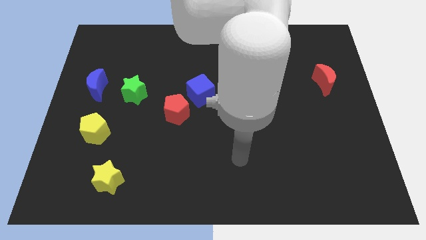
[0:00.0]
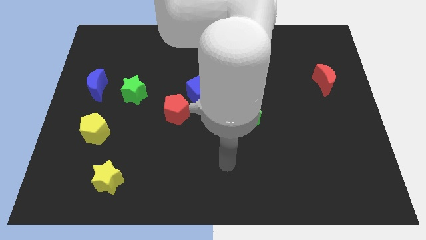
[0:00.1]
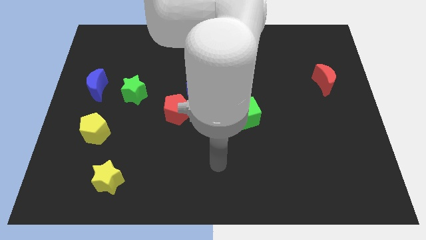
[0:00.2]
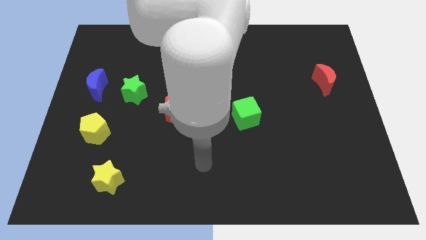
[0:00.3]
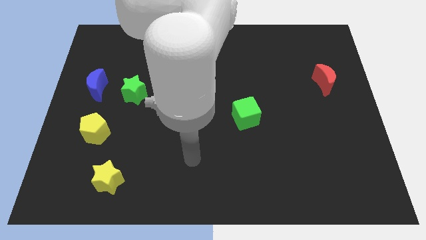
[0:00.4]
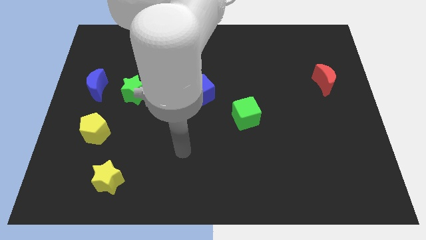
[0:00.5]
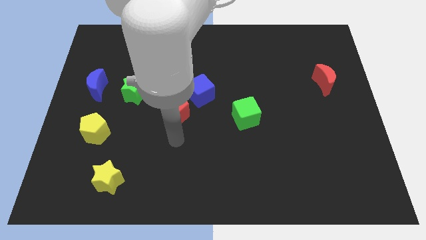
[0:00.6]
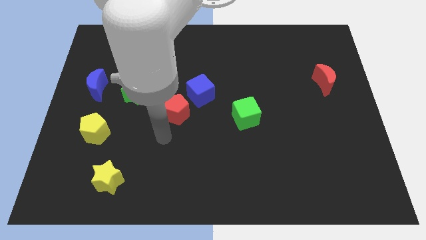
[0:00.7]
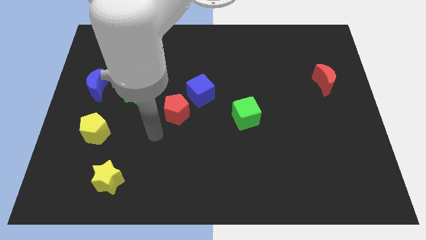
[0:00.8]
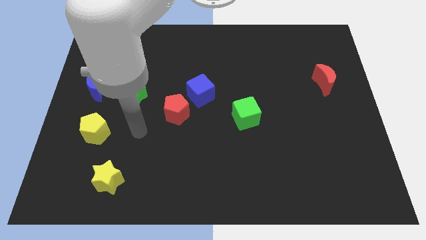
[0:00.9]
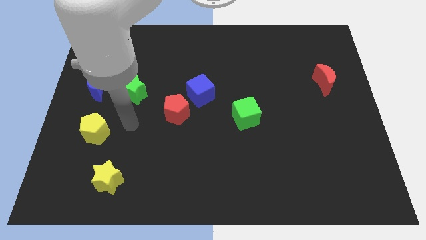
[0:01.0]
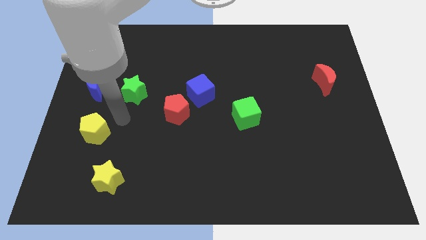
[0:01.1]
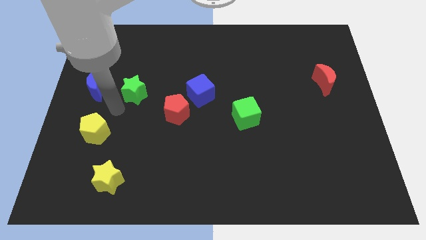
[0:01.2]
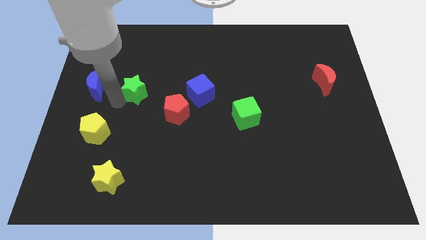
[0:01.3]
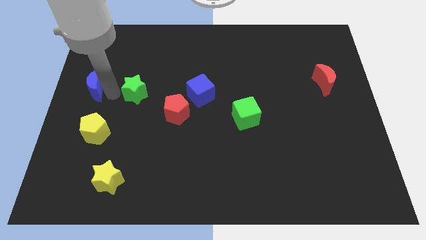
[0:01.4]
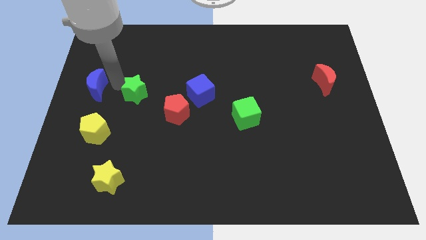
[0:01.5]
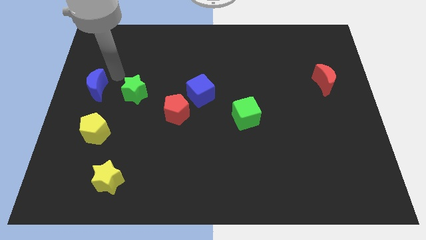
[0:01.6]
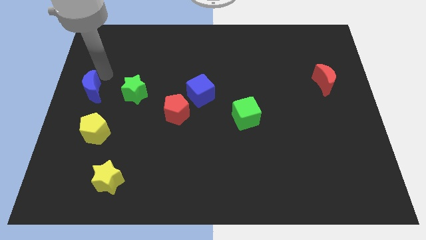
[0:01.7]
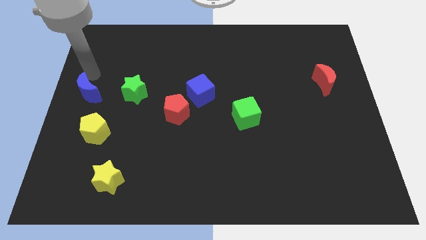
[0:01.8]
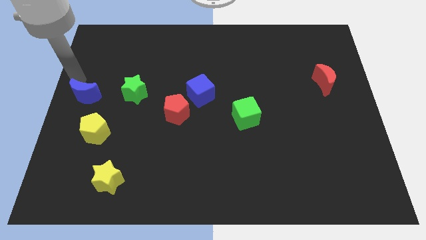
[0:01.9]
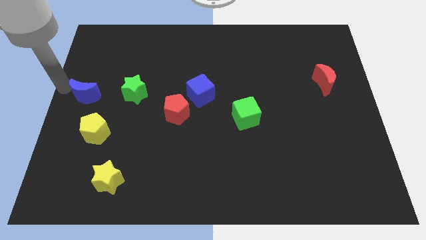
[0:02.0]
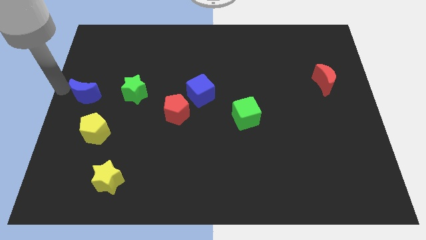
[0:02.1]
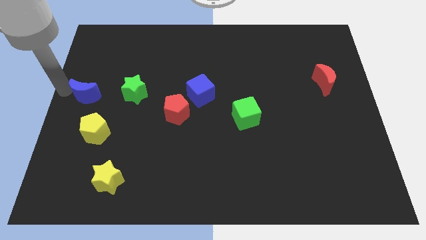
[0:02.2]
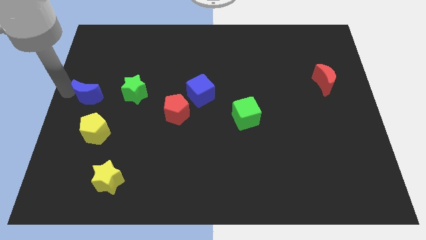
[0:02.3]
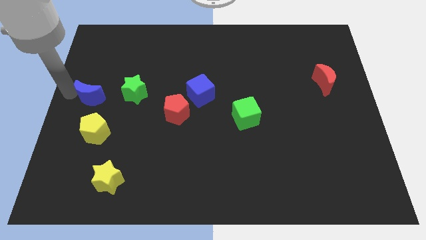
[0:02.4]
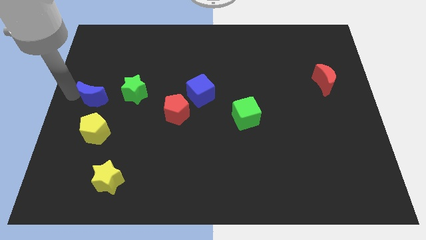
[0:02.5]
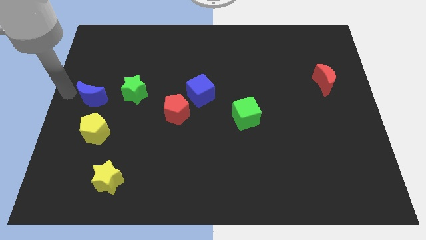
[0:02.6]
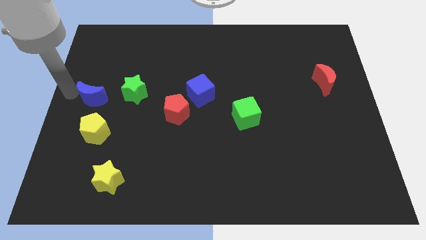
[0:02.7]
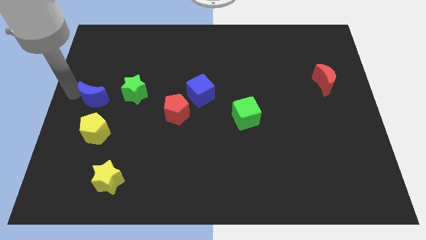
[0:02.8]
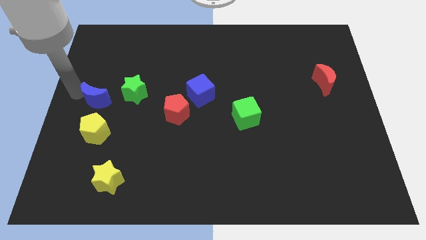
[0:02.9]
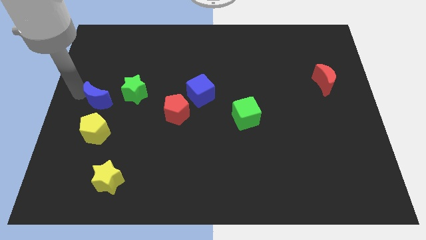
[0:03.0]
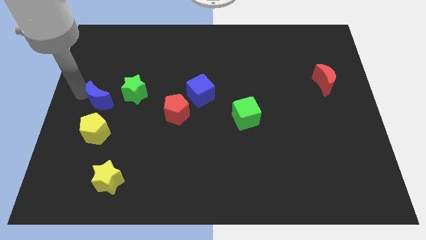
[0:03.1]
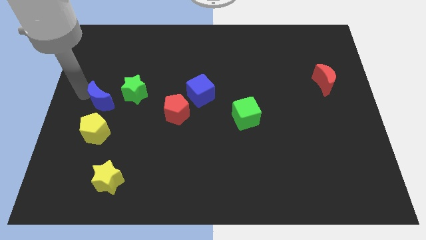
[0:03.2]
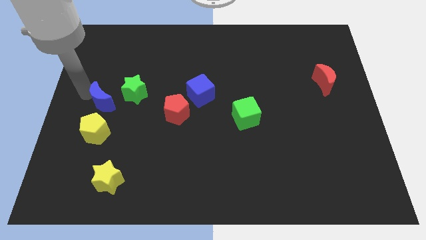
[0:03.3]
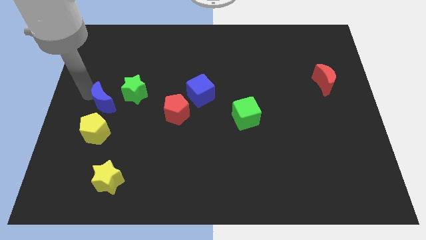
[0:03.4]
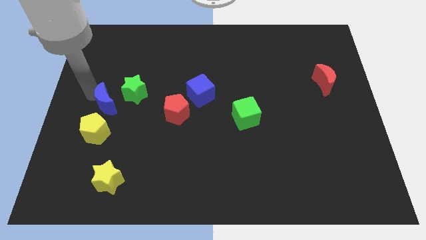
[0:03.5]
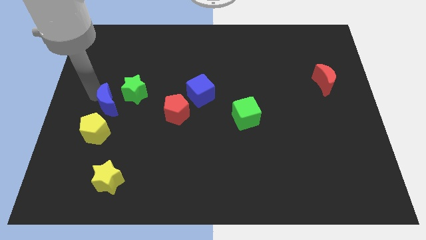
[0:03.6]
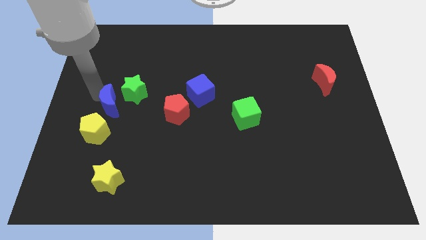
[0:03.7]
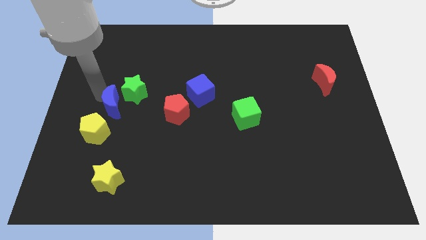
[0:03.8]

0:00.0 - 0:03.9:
slide the blue moon somewhat down and right diagonally

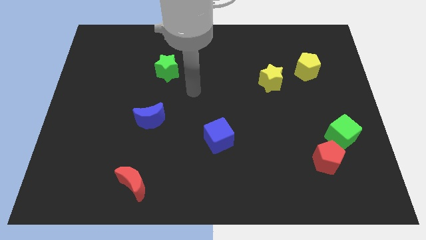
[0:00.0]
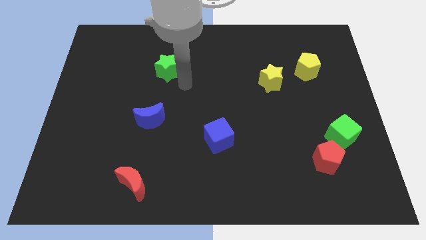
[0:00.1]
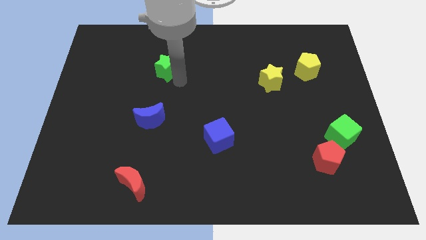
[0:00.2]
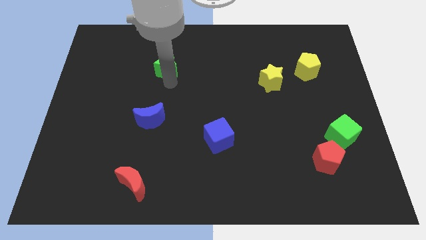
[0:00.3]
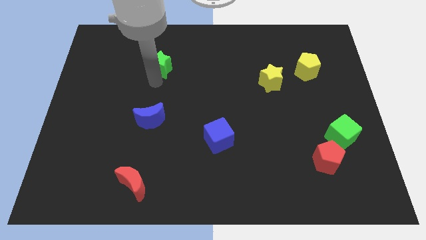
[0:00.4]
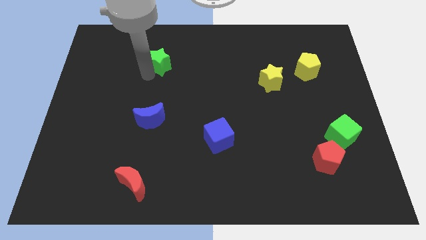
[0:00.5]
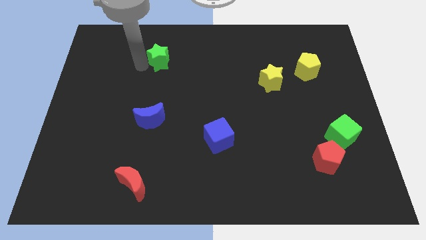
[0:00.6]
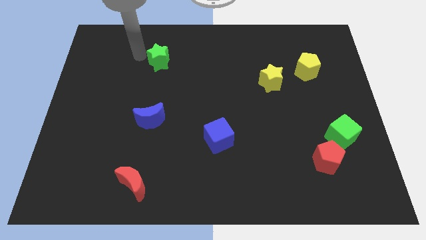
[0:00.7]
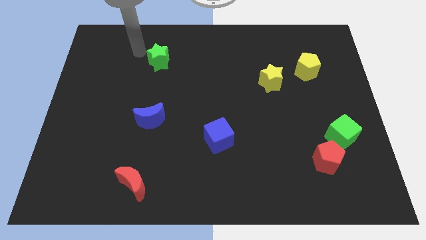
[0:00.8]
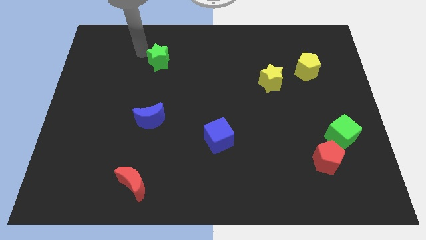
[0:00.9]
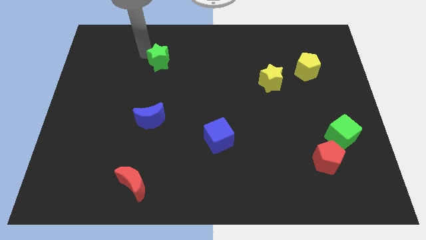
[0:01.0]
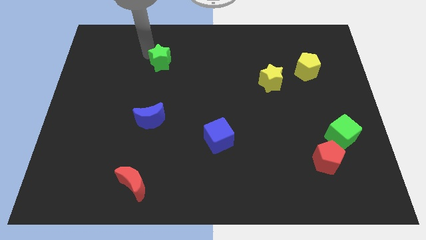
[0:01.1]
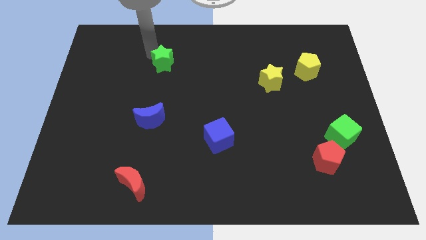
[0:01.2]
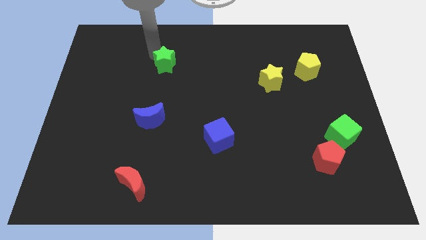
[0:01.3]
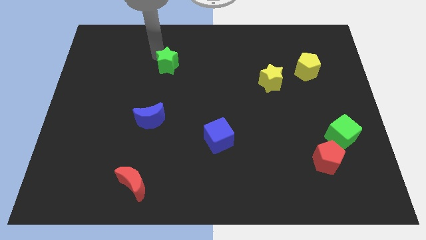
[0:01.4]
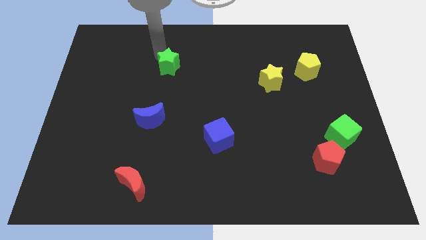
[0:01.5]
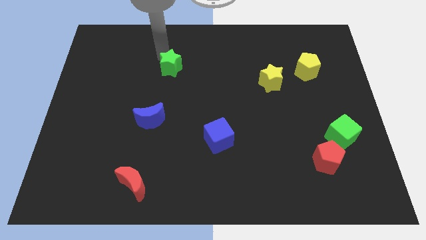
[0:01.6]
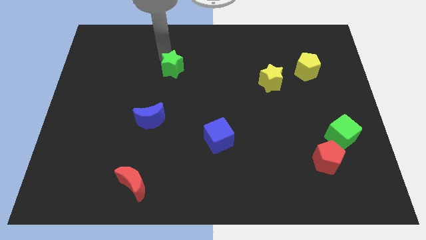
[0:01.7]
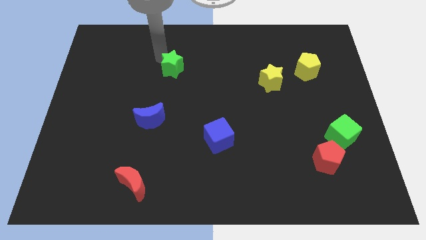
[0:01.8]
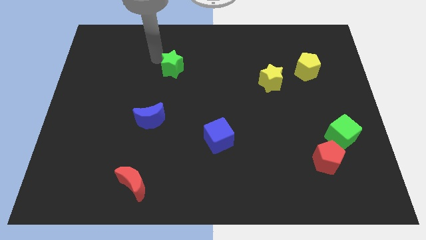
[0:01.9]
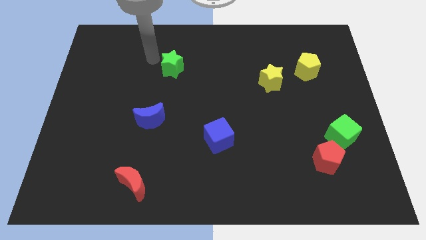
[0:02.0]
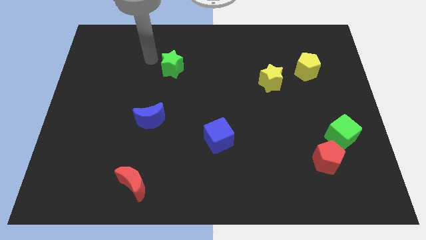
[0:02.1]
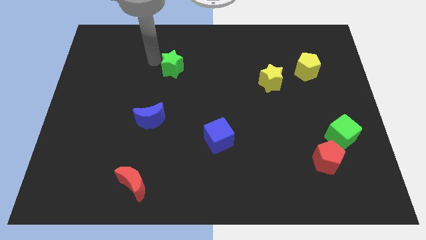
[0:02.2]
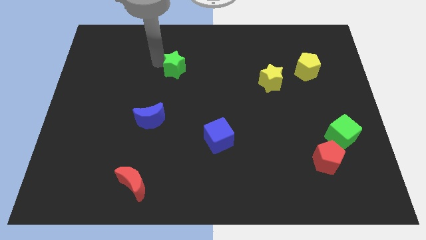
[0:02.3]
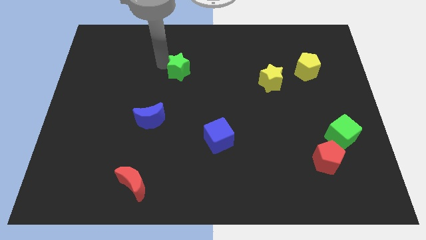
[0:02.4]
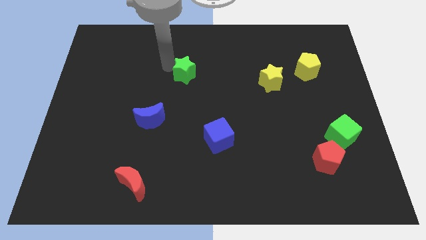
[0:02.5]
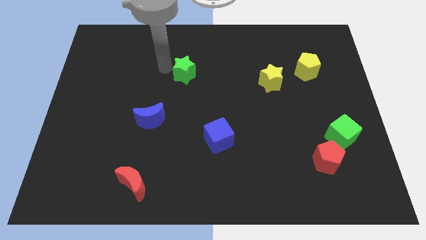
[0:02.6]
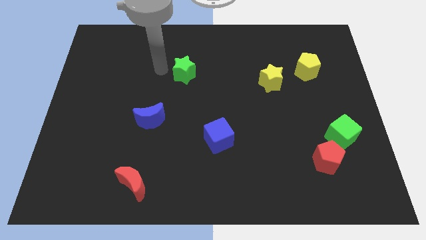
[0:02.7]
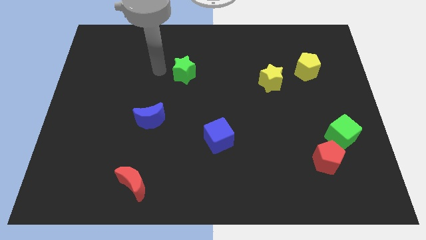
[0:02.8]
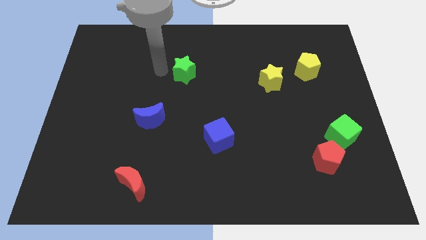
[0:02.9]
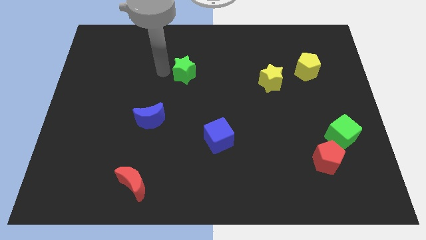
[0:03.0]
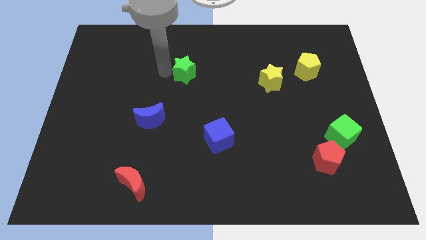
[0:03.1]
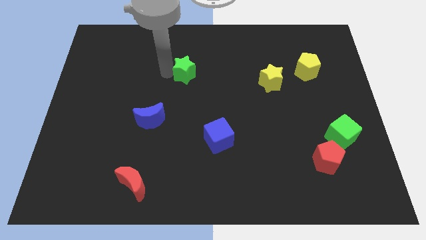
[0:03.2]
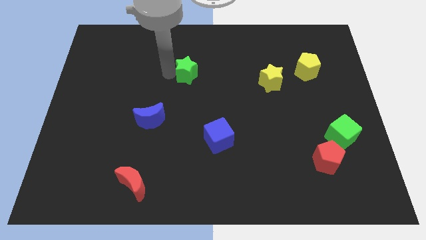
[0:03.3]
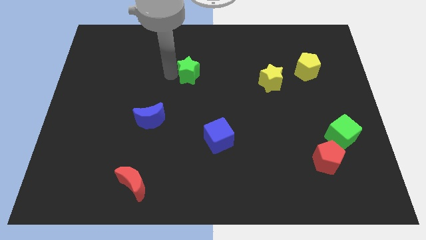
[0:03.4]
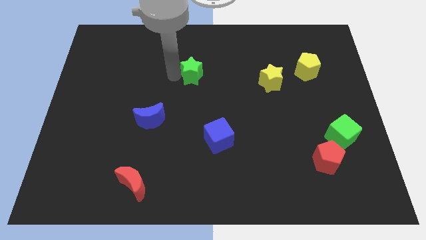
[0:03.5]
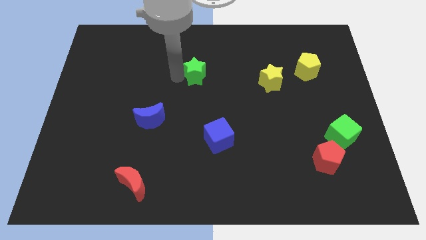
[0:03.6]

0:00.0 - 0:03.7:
slightly move the green star to the right

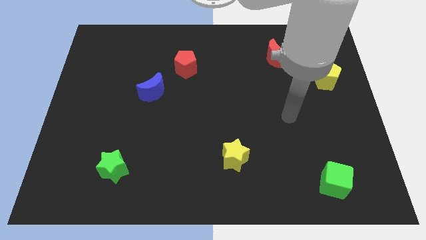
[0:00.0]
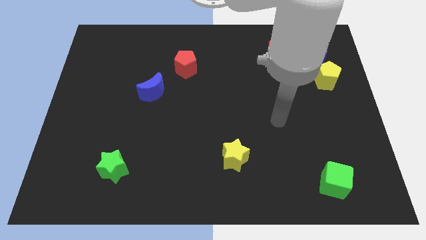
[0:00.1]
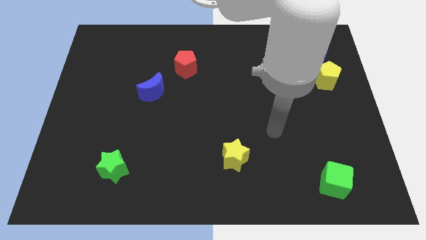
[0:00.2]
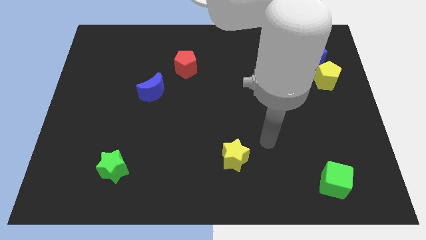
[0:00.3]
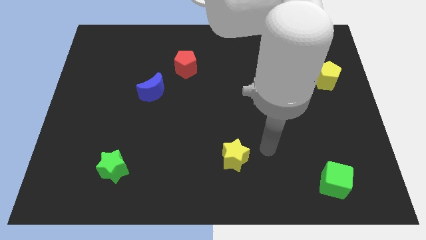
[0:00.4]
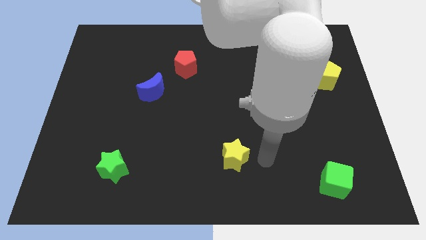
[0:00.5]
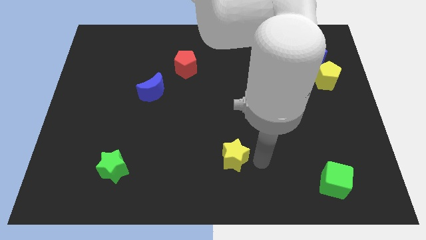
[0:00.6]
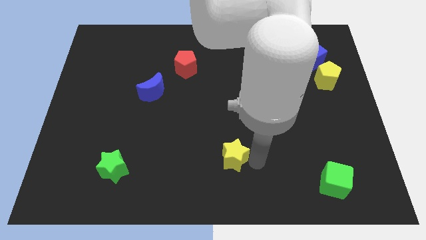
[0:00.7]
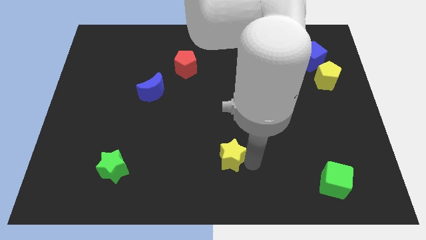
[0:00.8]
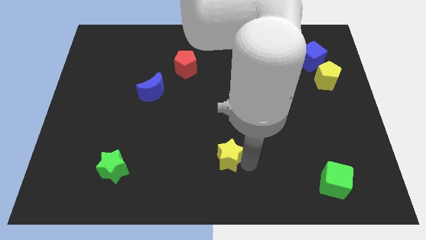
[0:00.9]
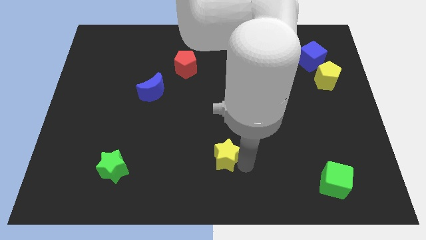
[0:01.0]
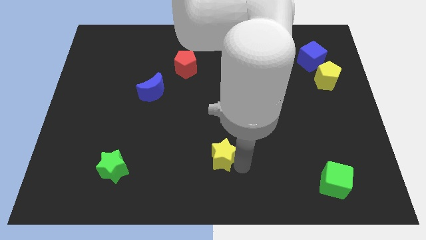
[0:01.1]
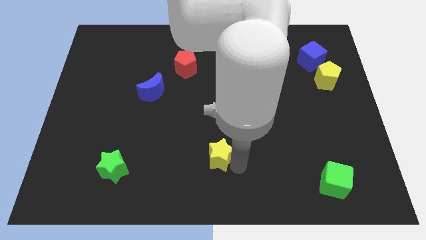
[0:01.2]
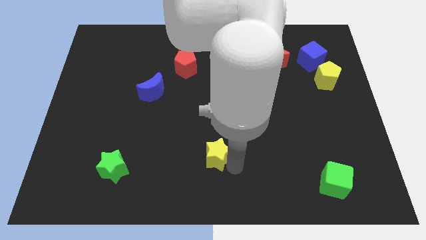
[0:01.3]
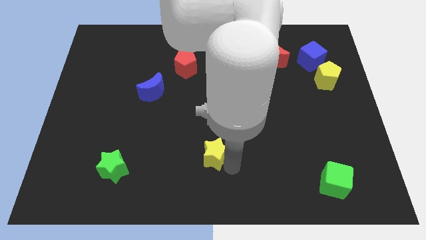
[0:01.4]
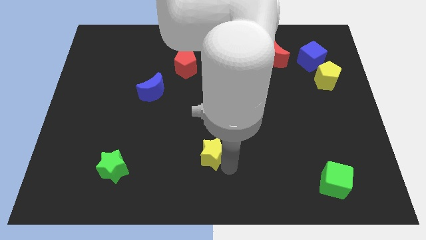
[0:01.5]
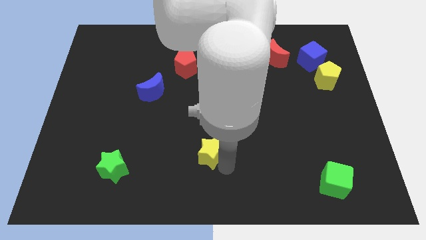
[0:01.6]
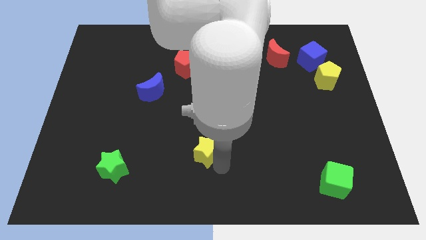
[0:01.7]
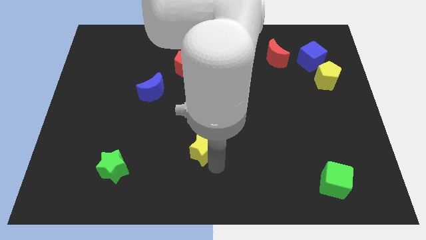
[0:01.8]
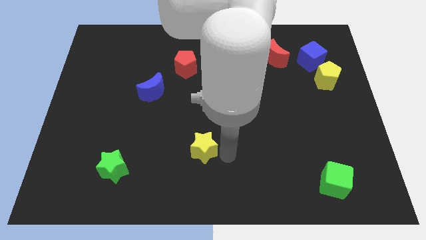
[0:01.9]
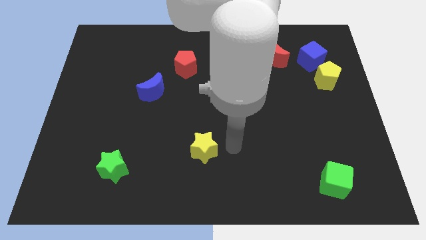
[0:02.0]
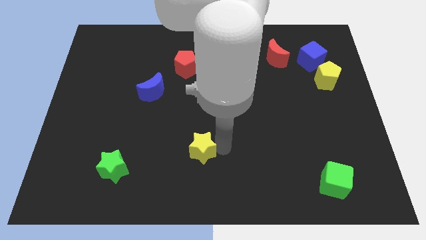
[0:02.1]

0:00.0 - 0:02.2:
move the yellow star left a bit
